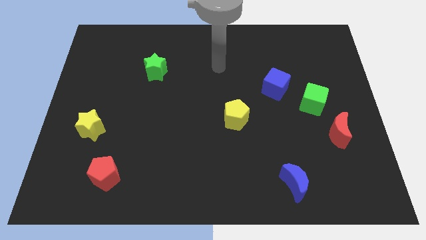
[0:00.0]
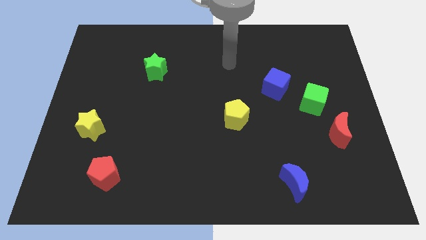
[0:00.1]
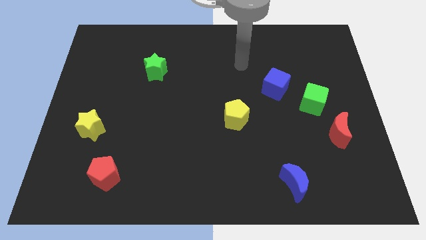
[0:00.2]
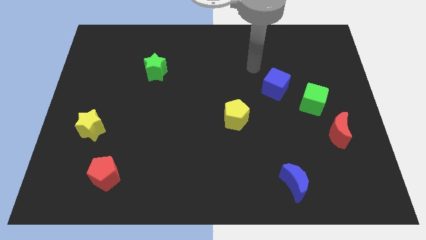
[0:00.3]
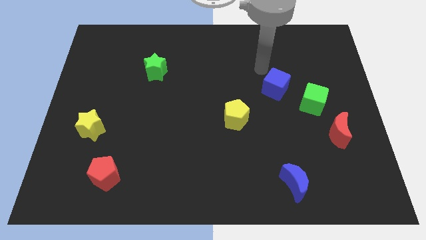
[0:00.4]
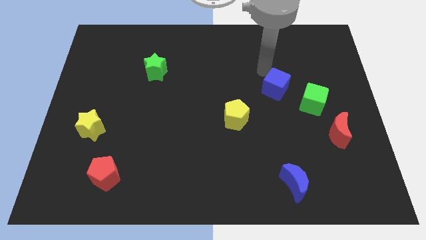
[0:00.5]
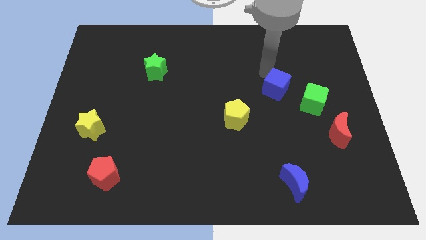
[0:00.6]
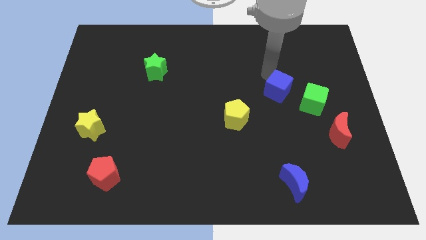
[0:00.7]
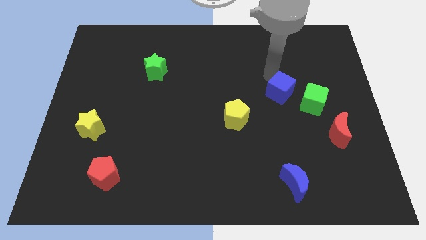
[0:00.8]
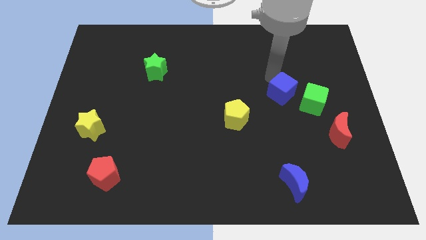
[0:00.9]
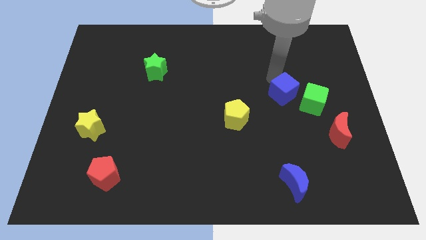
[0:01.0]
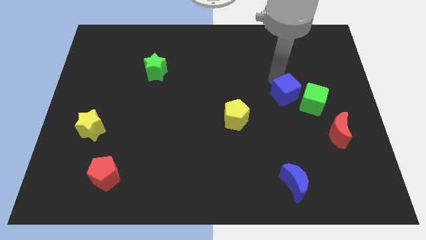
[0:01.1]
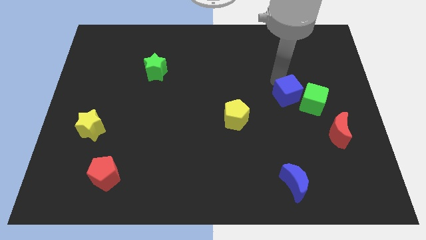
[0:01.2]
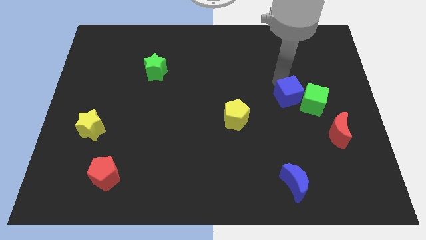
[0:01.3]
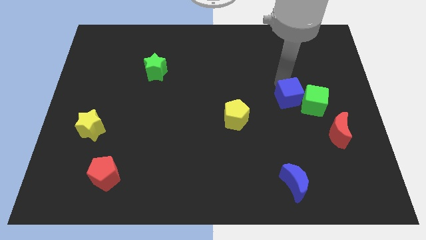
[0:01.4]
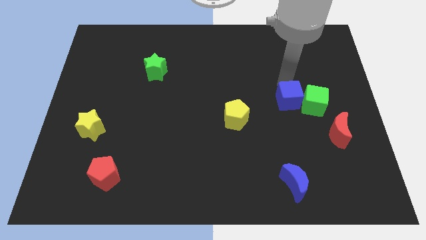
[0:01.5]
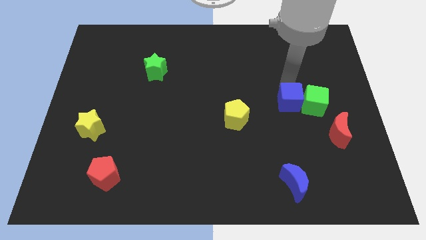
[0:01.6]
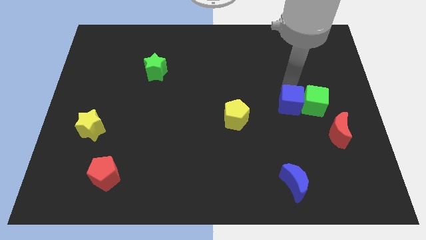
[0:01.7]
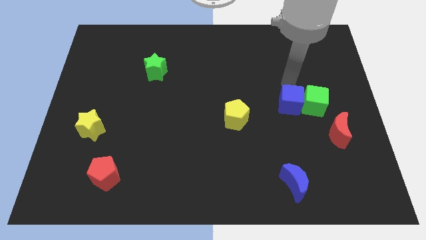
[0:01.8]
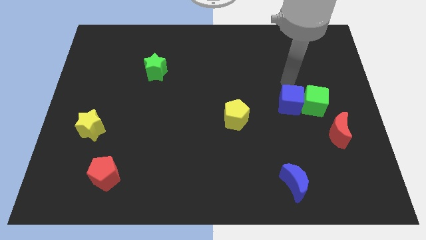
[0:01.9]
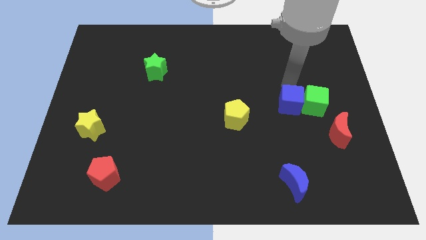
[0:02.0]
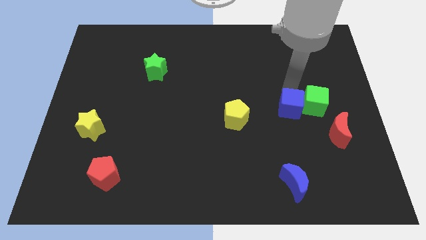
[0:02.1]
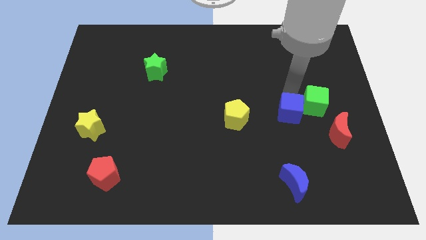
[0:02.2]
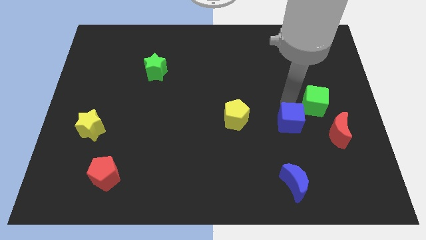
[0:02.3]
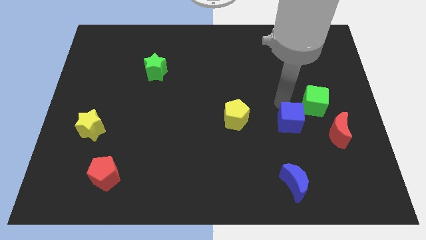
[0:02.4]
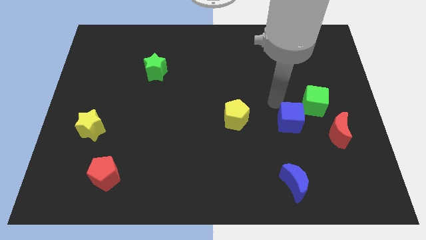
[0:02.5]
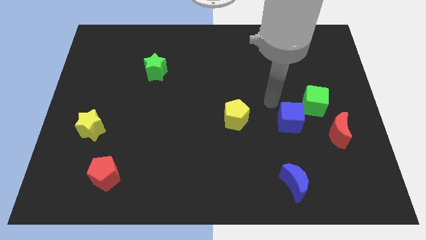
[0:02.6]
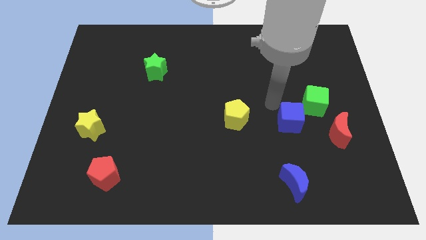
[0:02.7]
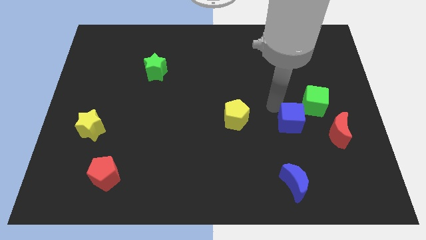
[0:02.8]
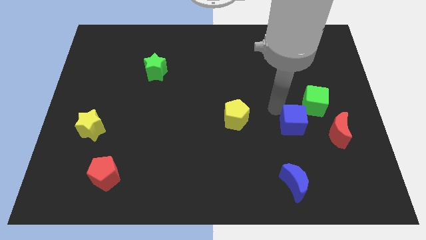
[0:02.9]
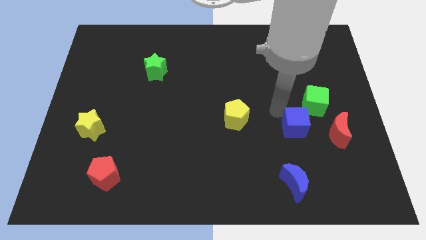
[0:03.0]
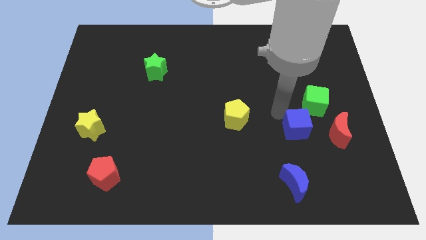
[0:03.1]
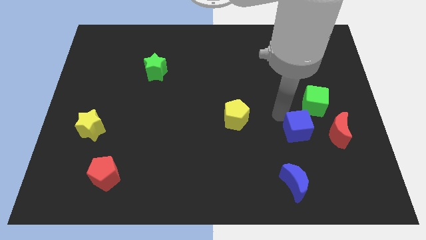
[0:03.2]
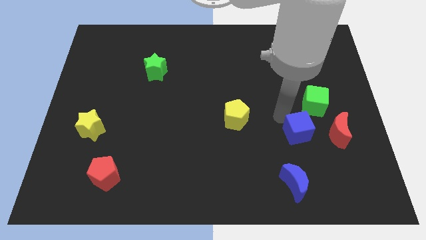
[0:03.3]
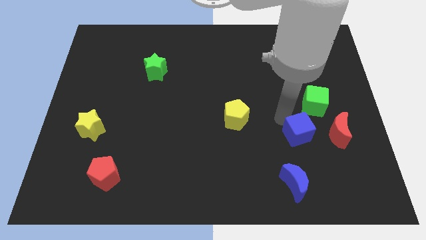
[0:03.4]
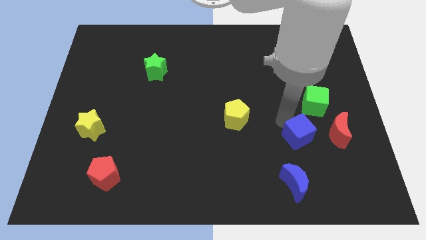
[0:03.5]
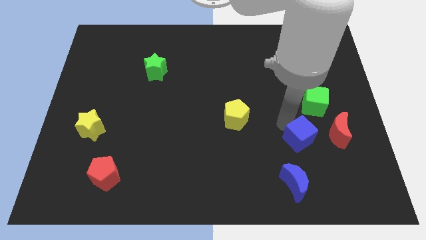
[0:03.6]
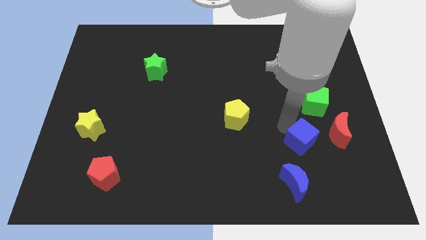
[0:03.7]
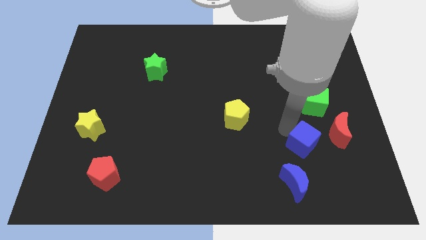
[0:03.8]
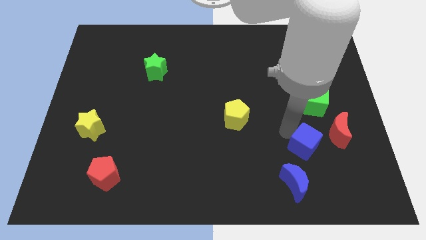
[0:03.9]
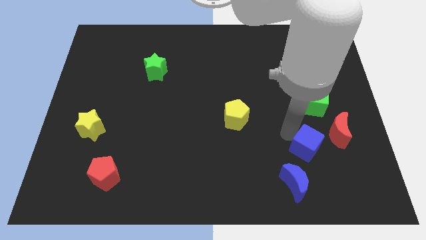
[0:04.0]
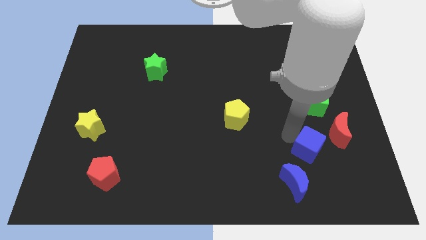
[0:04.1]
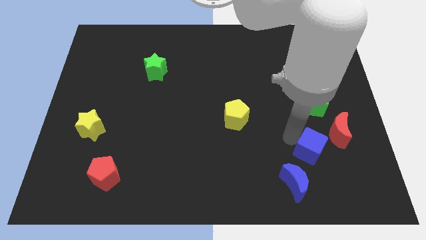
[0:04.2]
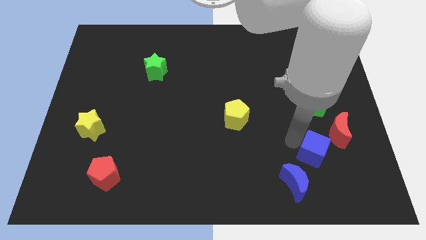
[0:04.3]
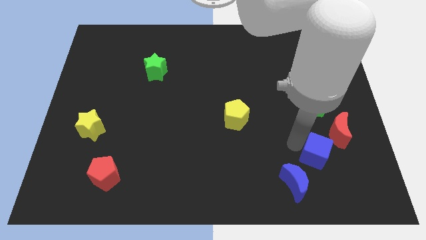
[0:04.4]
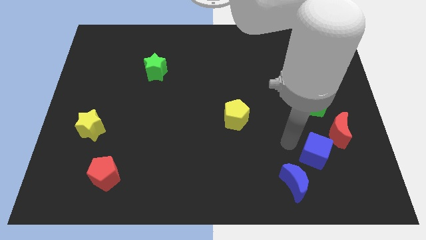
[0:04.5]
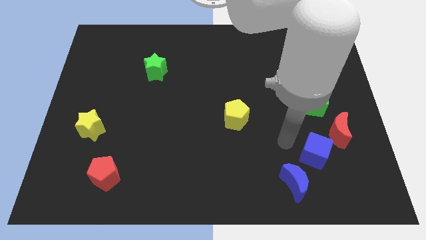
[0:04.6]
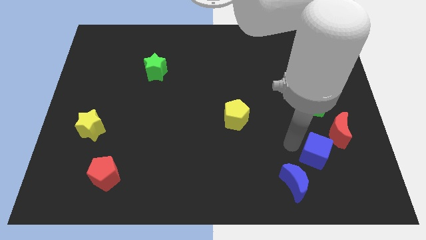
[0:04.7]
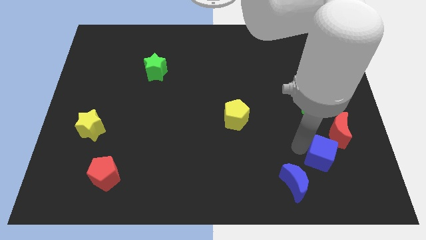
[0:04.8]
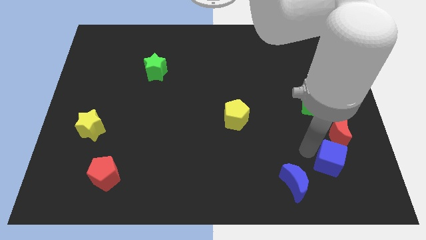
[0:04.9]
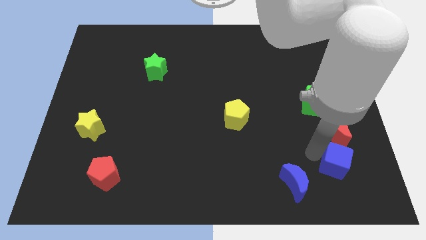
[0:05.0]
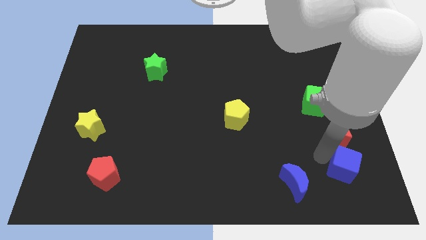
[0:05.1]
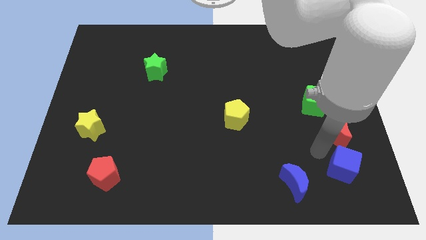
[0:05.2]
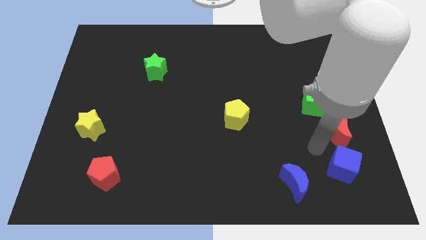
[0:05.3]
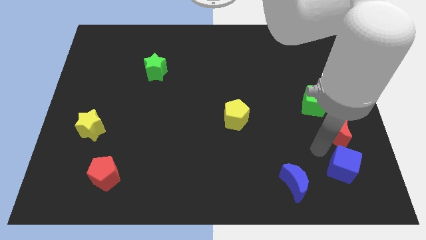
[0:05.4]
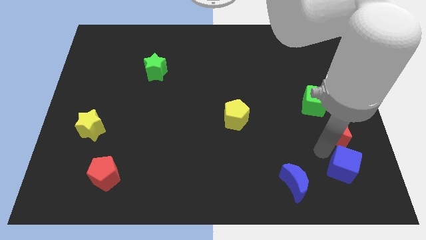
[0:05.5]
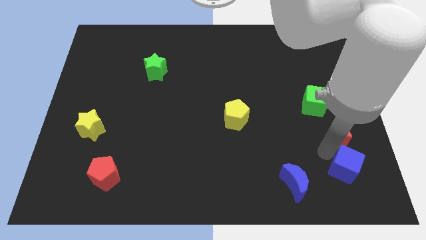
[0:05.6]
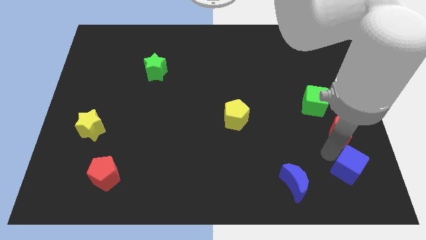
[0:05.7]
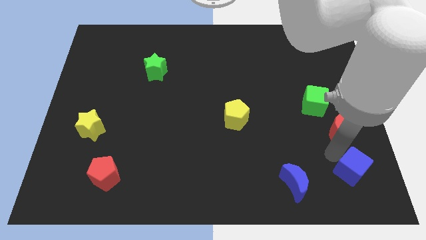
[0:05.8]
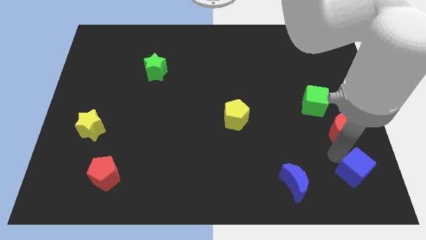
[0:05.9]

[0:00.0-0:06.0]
push the blue cube to the bottom right of the board

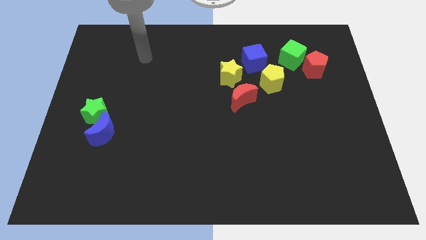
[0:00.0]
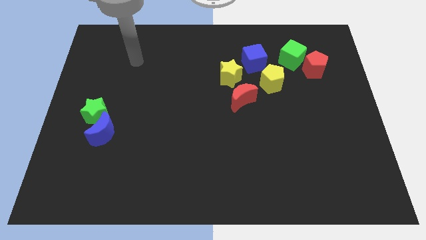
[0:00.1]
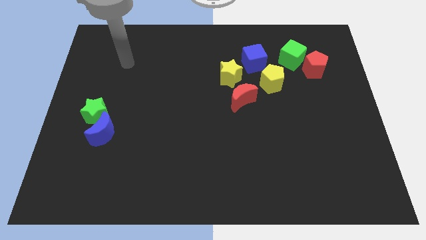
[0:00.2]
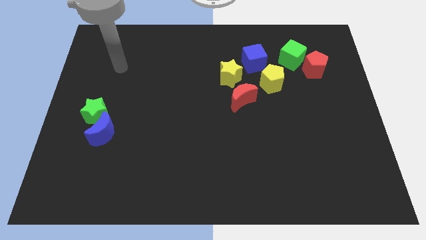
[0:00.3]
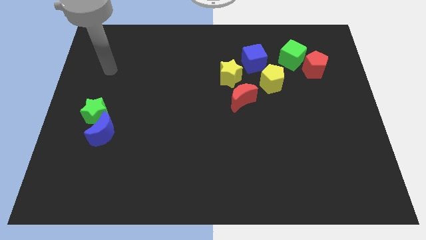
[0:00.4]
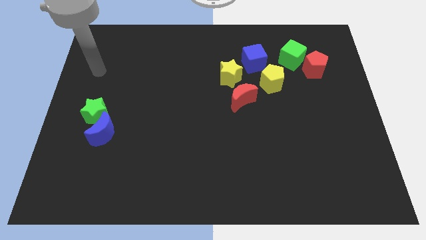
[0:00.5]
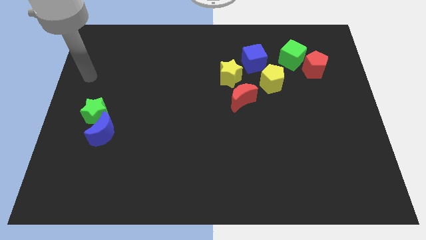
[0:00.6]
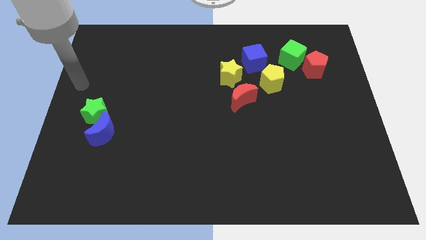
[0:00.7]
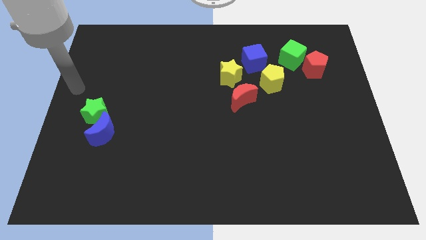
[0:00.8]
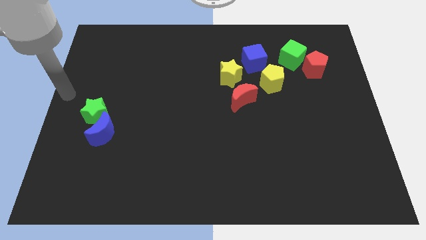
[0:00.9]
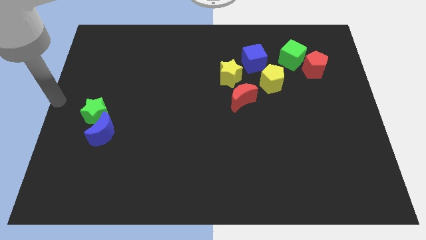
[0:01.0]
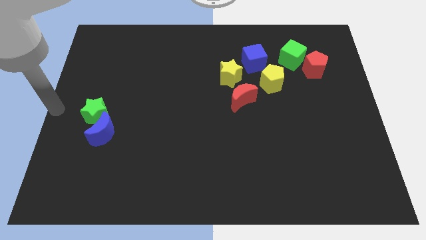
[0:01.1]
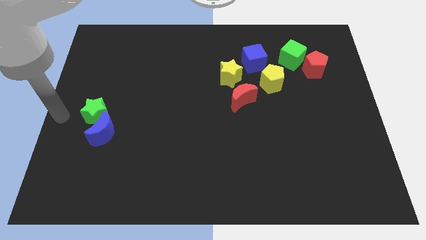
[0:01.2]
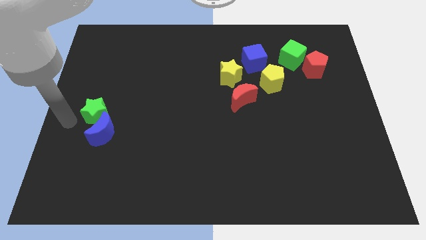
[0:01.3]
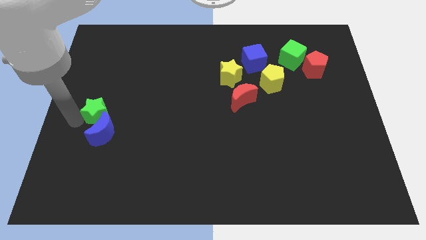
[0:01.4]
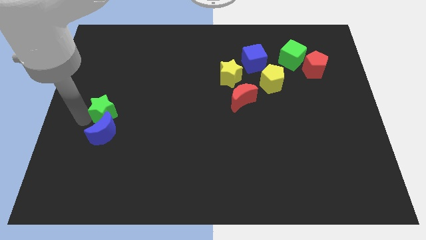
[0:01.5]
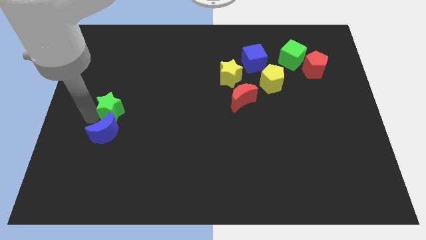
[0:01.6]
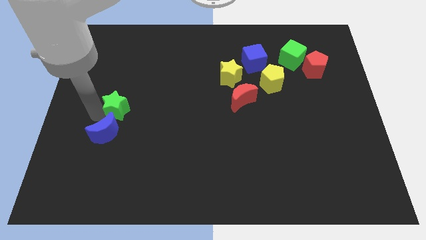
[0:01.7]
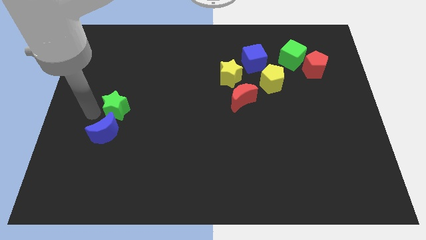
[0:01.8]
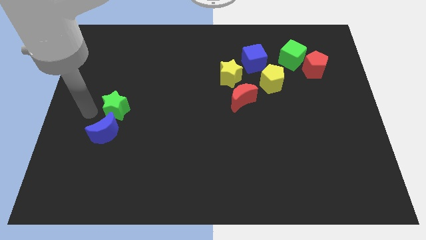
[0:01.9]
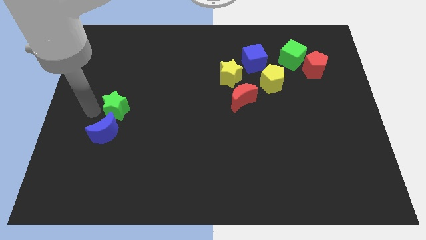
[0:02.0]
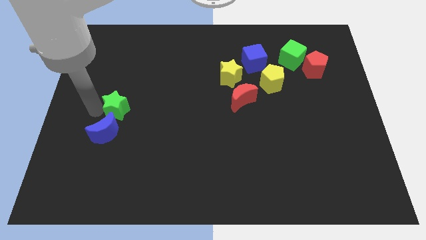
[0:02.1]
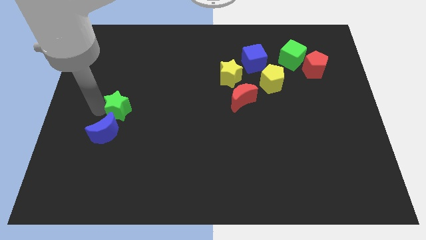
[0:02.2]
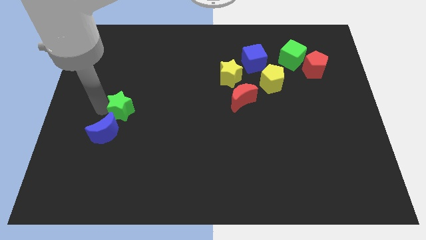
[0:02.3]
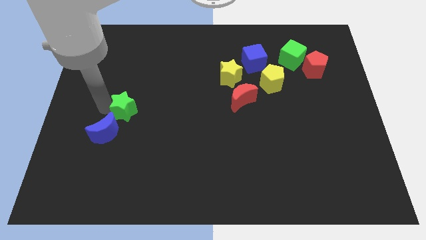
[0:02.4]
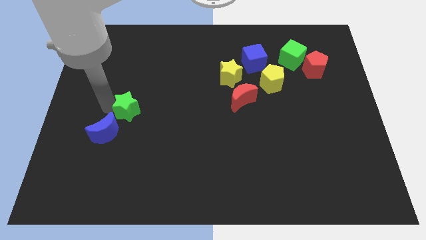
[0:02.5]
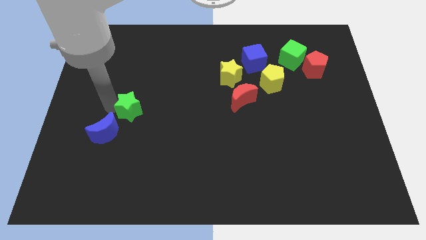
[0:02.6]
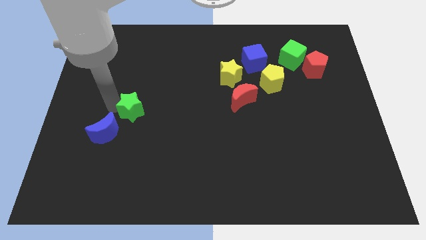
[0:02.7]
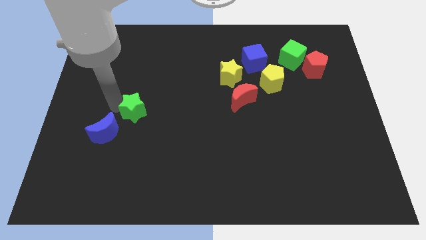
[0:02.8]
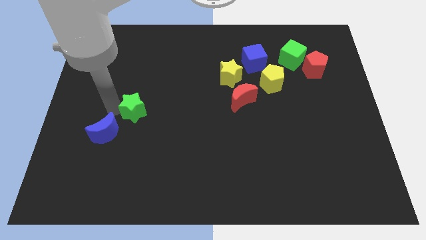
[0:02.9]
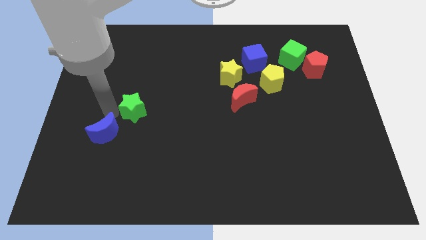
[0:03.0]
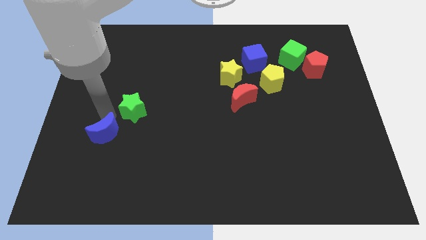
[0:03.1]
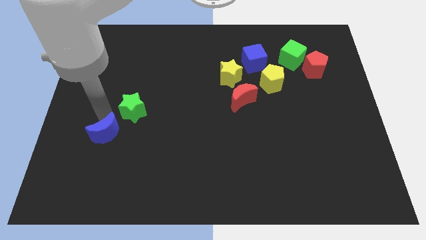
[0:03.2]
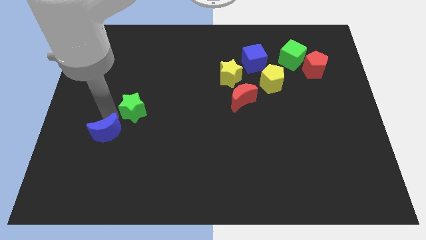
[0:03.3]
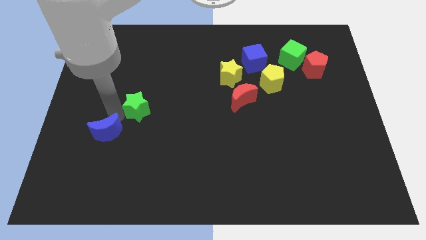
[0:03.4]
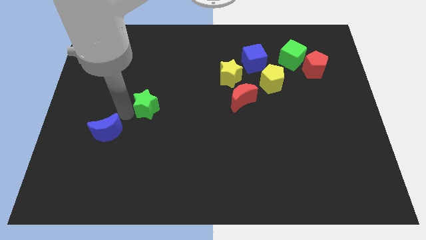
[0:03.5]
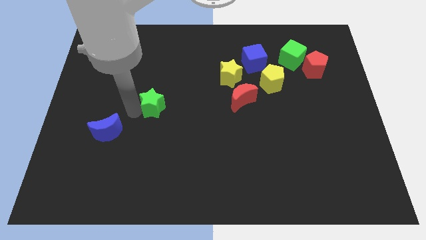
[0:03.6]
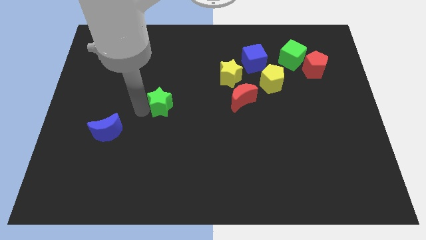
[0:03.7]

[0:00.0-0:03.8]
slide the green star to the center of the board
